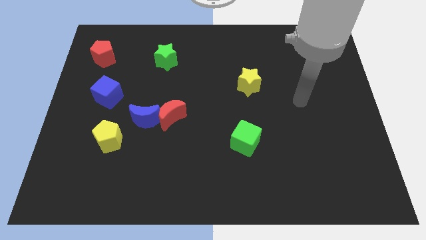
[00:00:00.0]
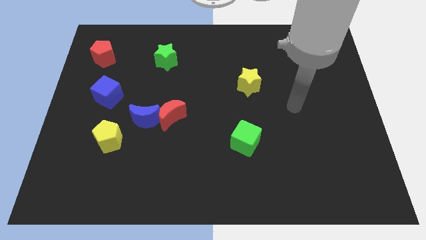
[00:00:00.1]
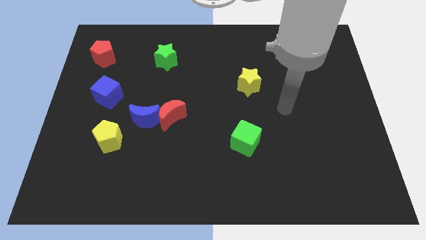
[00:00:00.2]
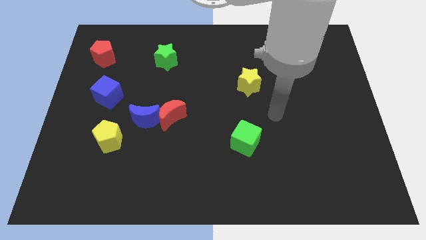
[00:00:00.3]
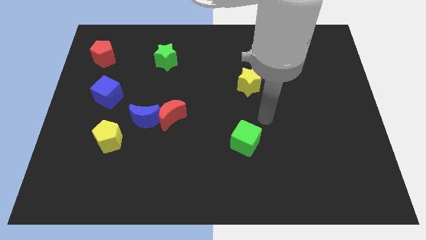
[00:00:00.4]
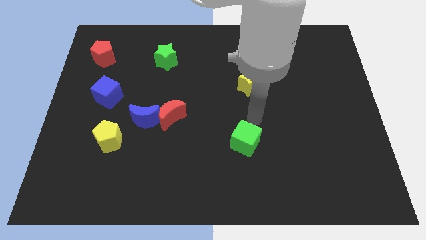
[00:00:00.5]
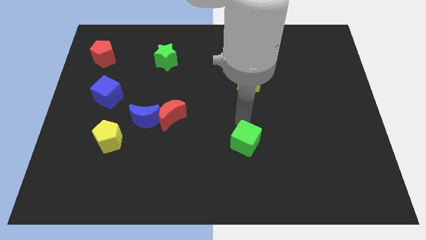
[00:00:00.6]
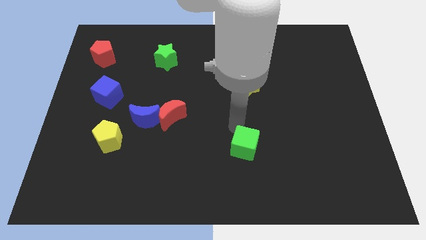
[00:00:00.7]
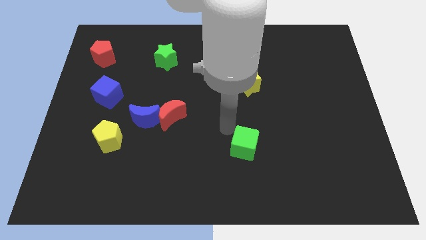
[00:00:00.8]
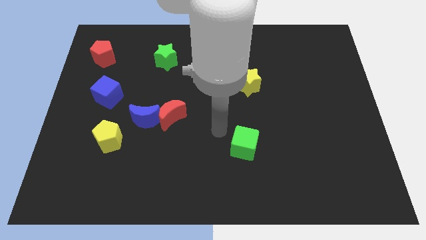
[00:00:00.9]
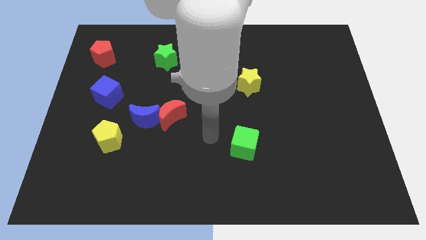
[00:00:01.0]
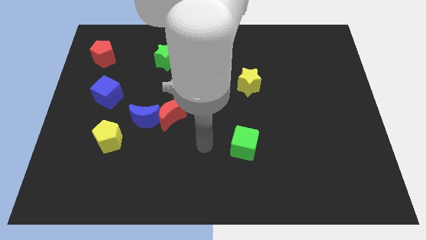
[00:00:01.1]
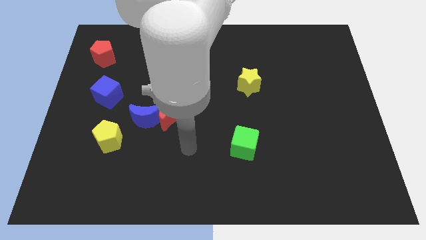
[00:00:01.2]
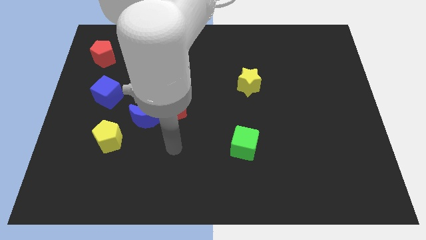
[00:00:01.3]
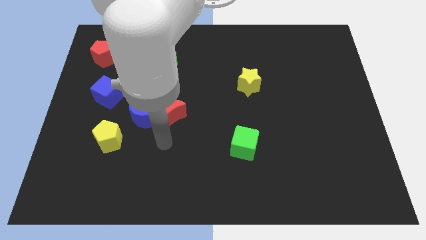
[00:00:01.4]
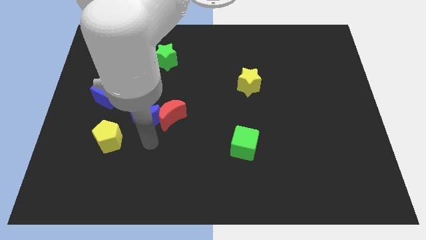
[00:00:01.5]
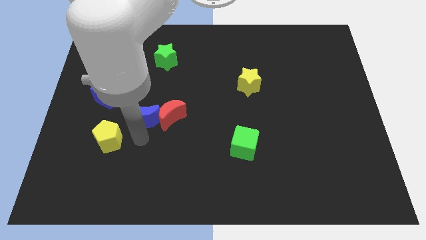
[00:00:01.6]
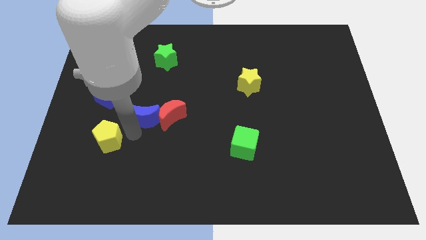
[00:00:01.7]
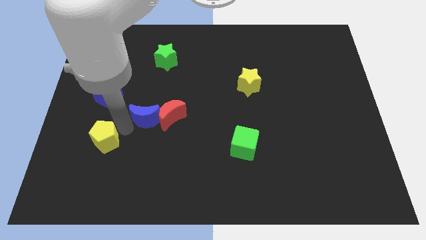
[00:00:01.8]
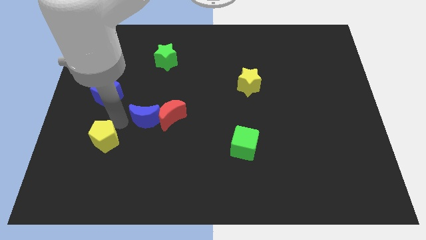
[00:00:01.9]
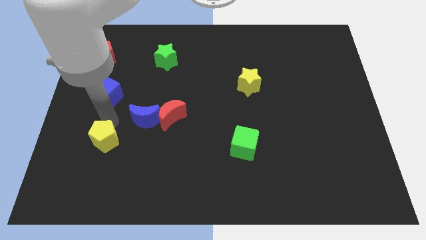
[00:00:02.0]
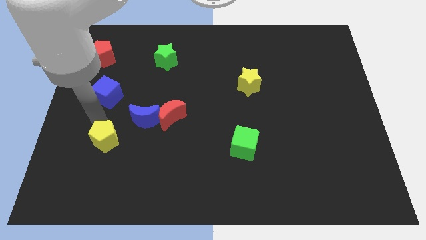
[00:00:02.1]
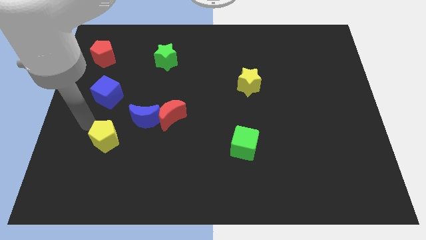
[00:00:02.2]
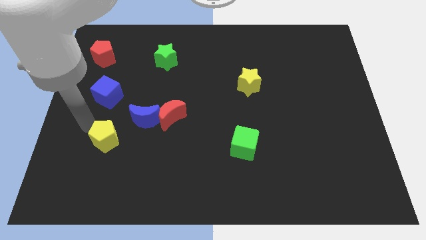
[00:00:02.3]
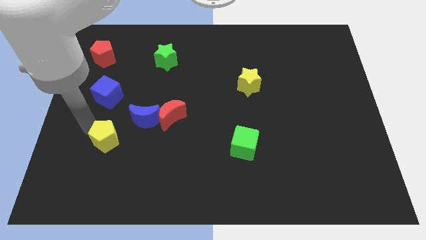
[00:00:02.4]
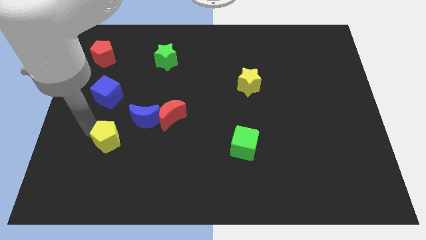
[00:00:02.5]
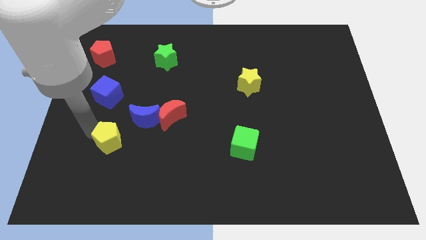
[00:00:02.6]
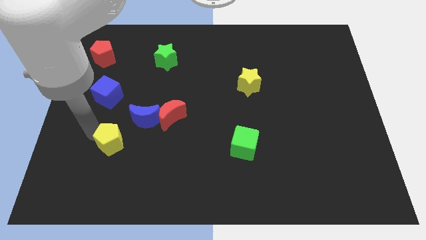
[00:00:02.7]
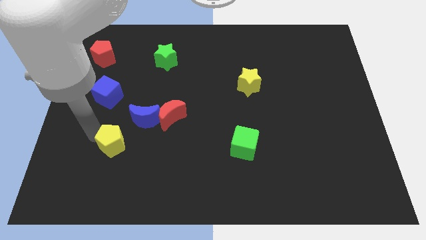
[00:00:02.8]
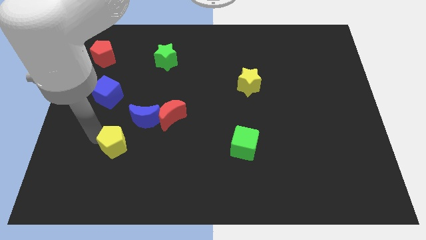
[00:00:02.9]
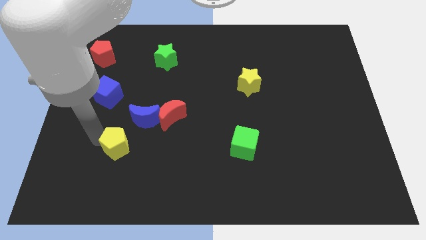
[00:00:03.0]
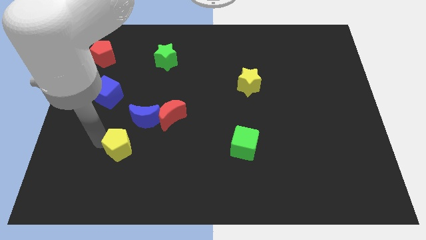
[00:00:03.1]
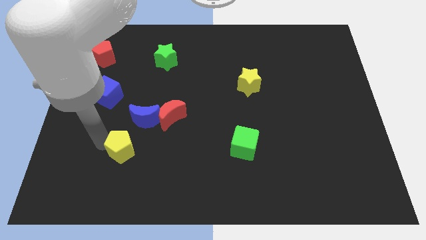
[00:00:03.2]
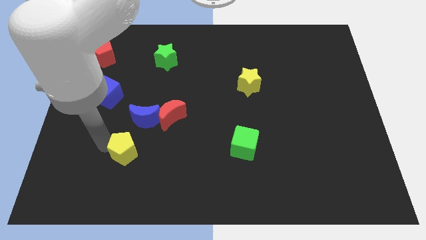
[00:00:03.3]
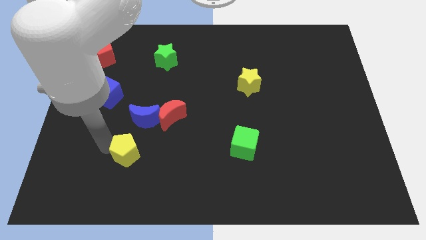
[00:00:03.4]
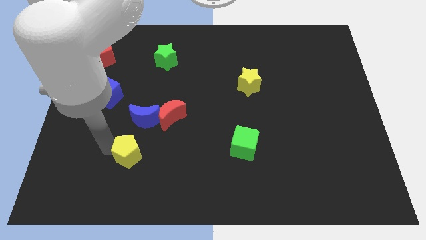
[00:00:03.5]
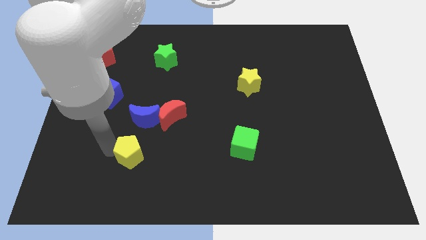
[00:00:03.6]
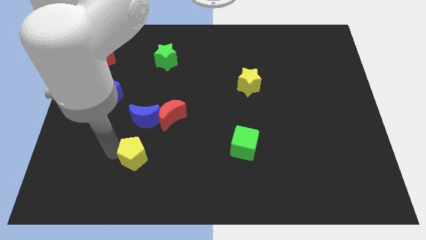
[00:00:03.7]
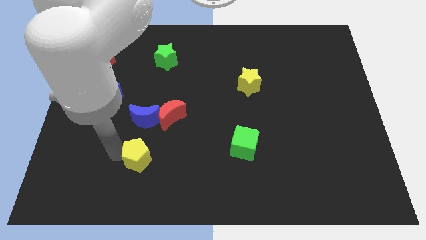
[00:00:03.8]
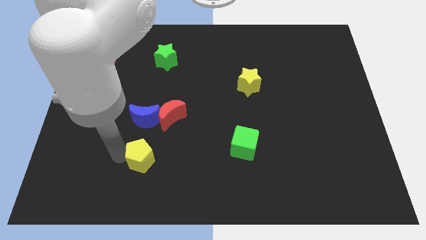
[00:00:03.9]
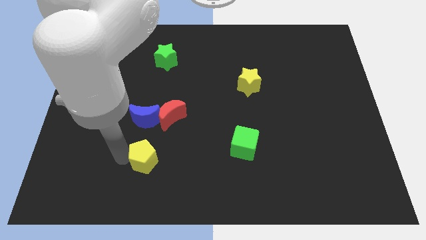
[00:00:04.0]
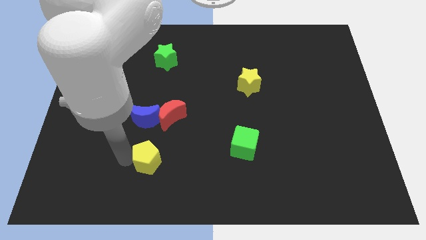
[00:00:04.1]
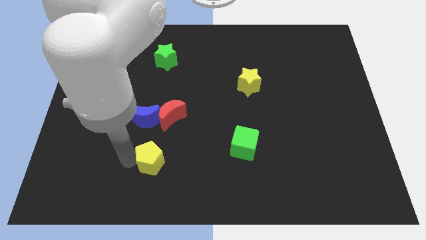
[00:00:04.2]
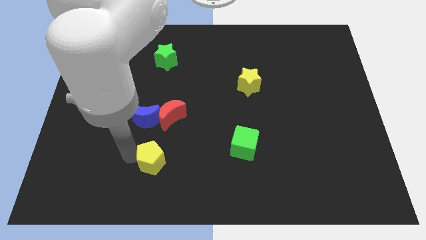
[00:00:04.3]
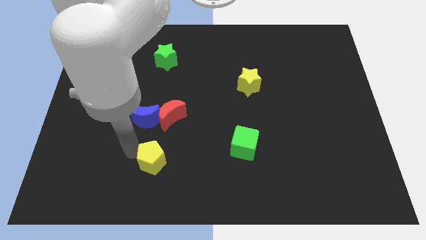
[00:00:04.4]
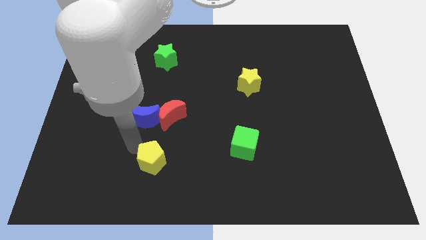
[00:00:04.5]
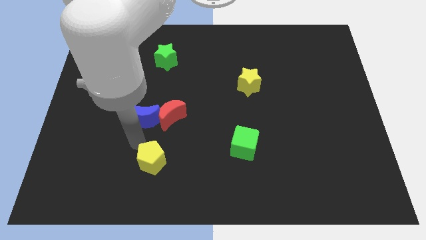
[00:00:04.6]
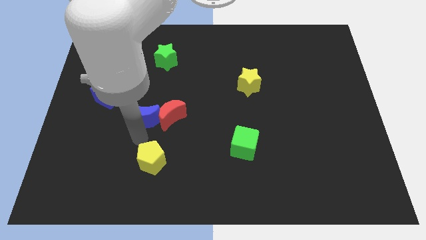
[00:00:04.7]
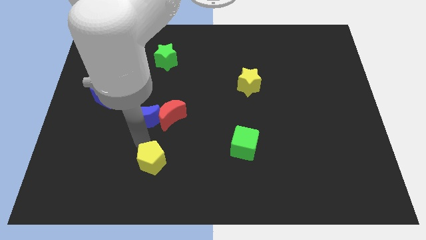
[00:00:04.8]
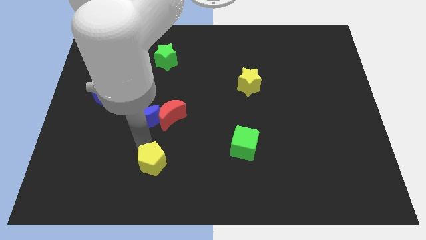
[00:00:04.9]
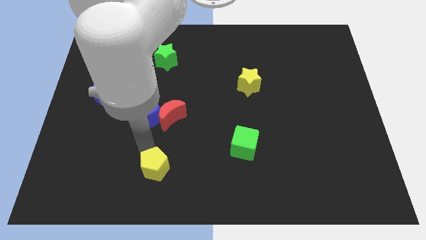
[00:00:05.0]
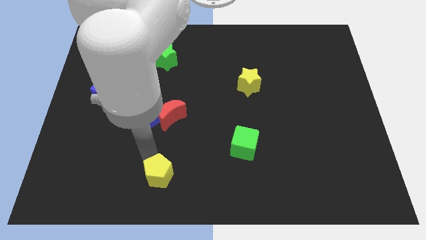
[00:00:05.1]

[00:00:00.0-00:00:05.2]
slide the yellow pentagon to the bottom
